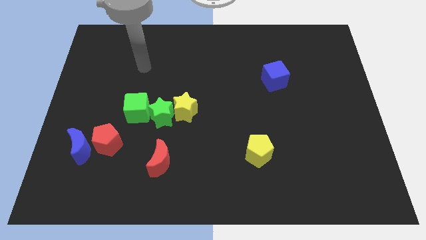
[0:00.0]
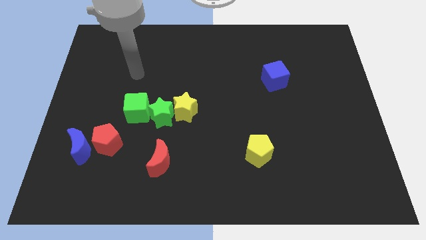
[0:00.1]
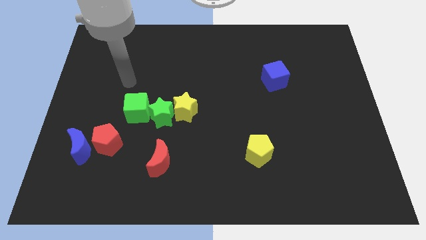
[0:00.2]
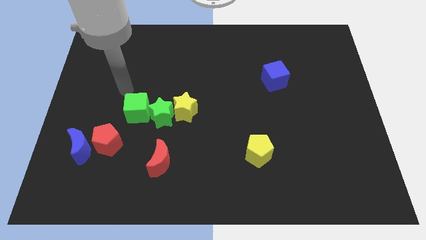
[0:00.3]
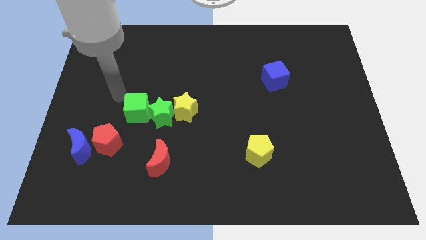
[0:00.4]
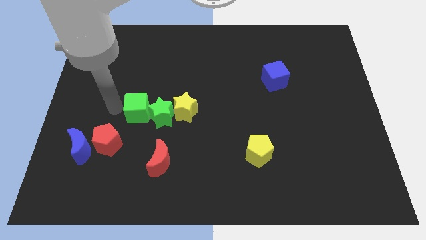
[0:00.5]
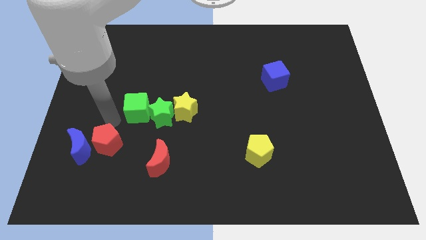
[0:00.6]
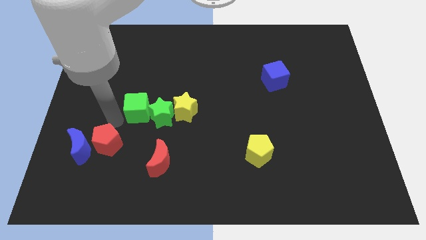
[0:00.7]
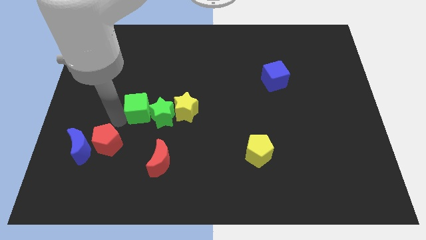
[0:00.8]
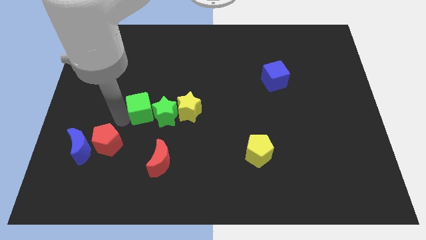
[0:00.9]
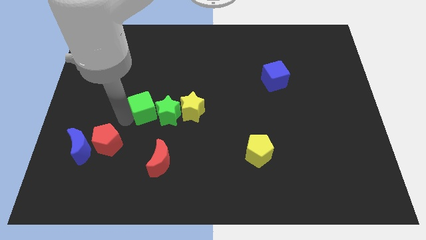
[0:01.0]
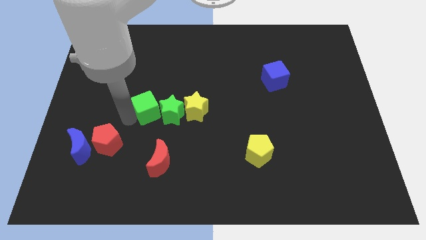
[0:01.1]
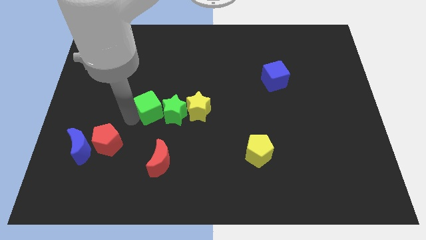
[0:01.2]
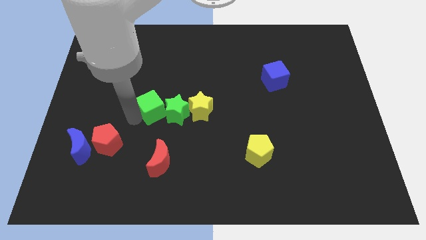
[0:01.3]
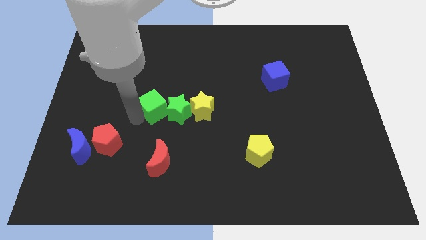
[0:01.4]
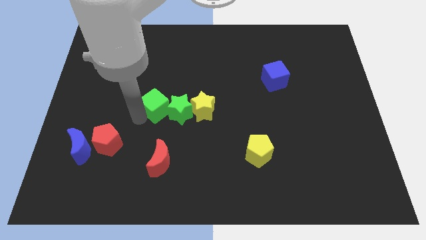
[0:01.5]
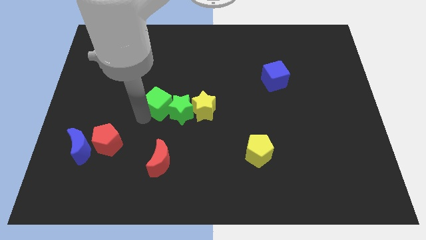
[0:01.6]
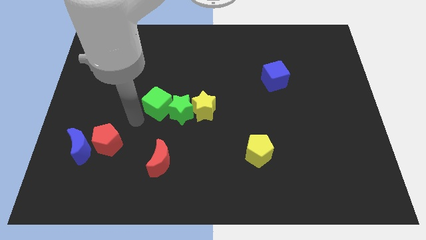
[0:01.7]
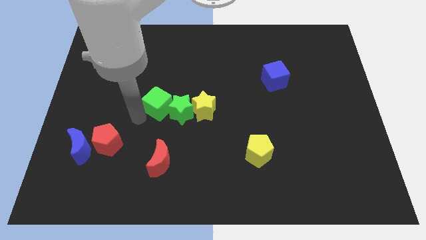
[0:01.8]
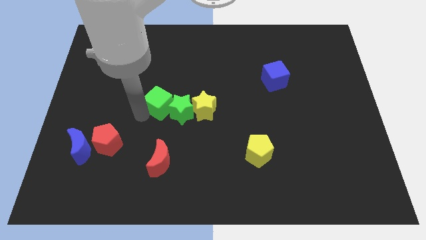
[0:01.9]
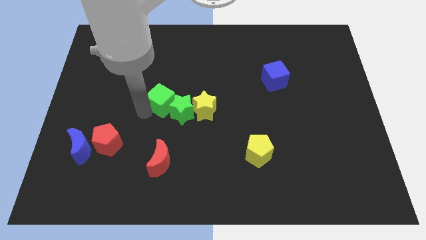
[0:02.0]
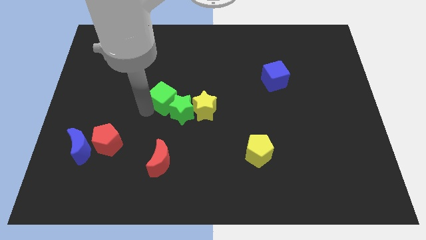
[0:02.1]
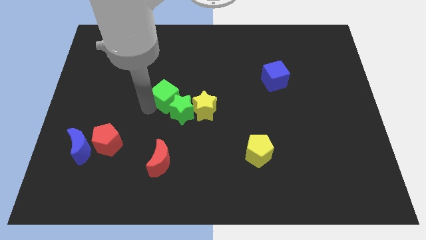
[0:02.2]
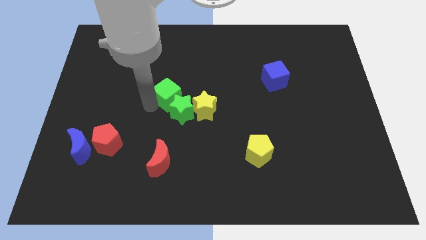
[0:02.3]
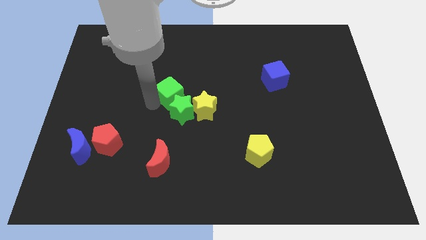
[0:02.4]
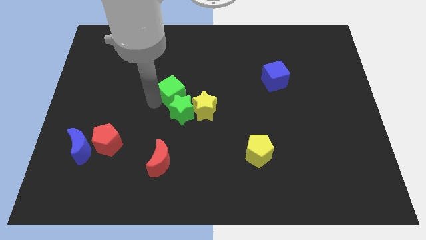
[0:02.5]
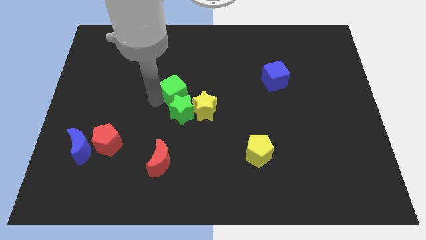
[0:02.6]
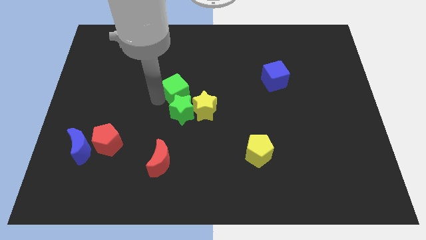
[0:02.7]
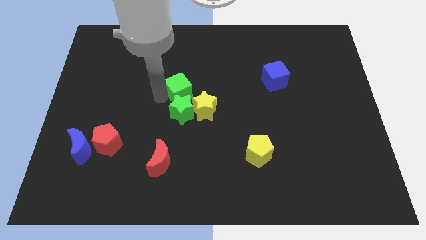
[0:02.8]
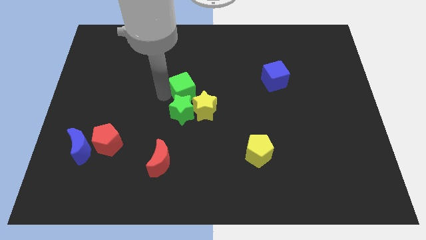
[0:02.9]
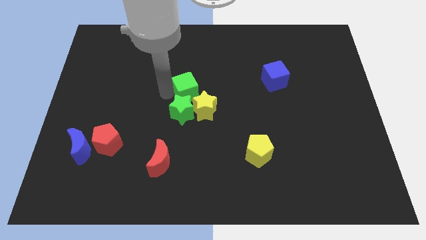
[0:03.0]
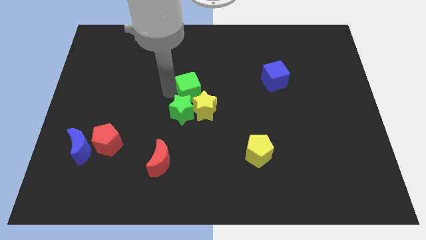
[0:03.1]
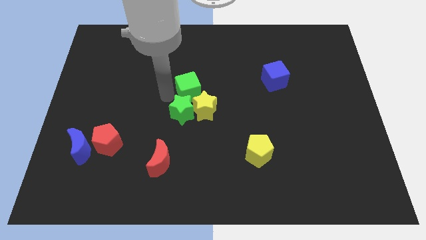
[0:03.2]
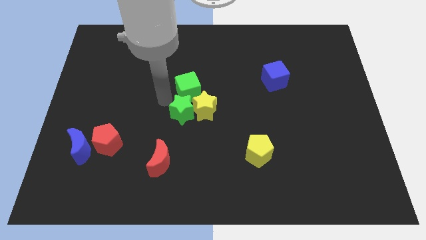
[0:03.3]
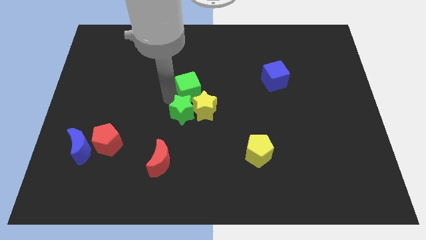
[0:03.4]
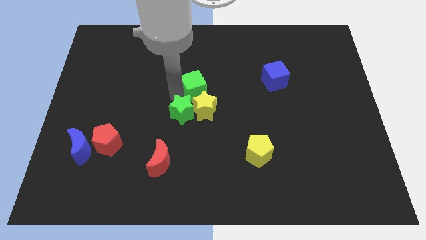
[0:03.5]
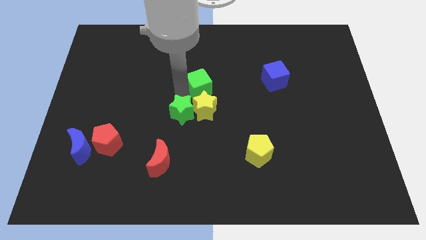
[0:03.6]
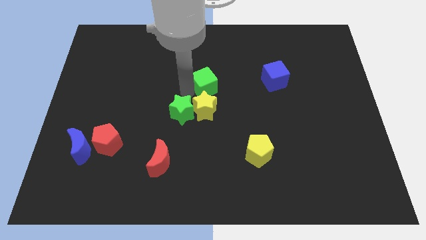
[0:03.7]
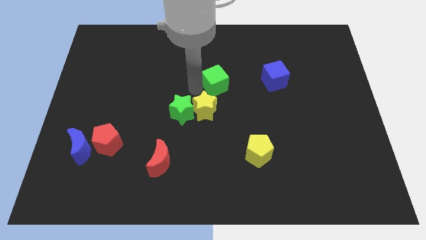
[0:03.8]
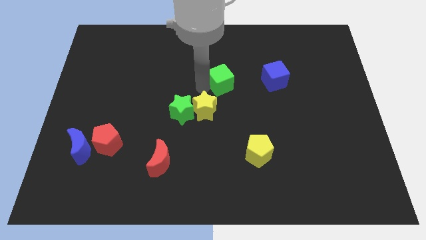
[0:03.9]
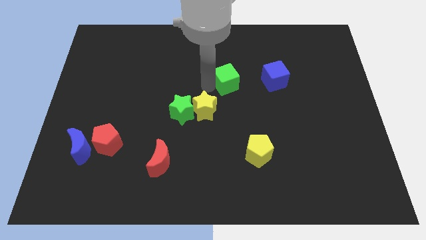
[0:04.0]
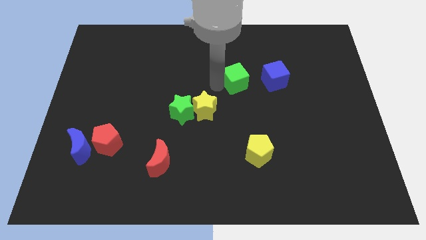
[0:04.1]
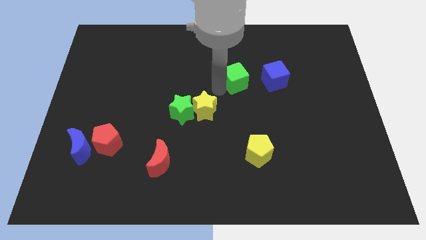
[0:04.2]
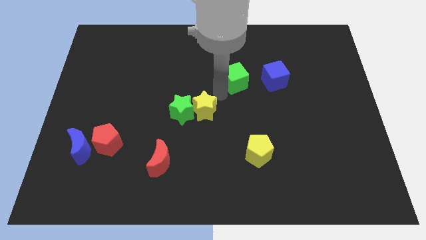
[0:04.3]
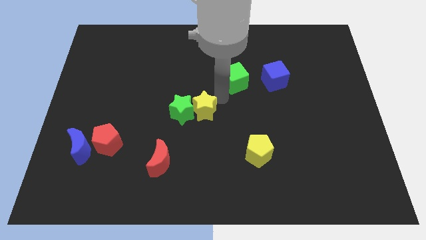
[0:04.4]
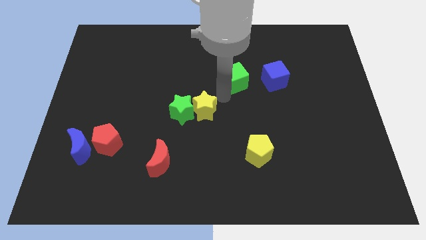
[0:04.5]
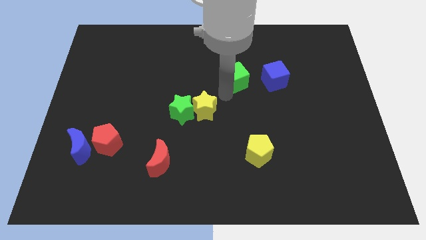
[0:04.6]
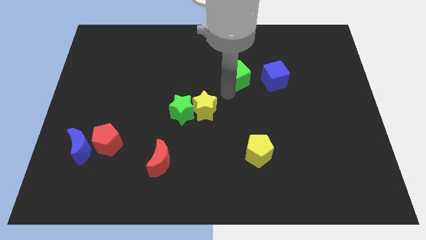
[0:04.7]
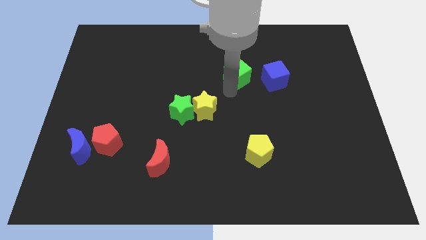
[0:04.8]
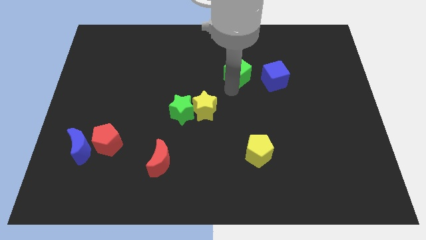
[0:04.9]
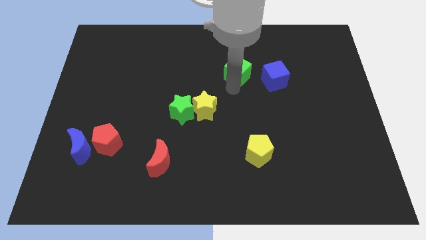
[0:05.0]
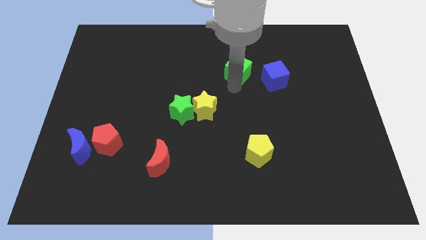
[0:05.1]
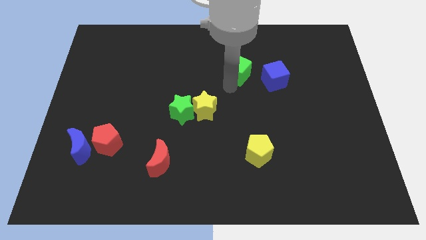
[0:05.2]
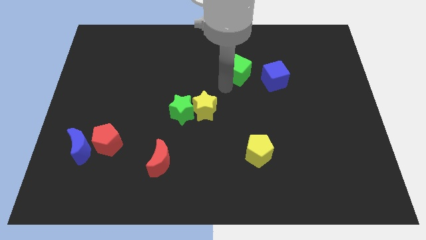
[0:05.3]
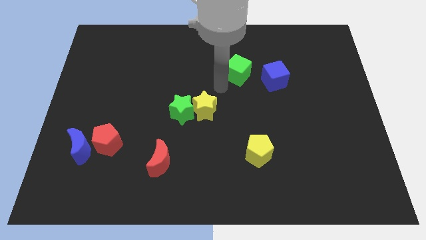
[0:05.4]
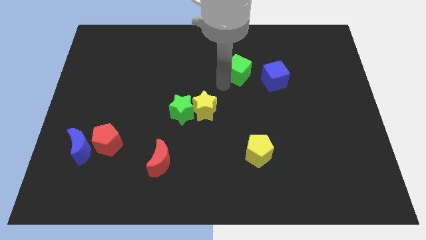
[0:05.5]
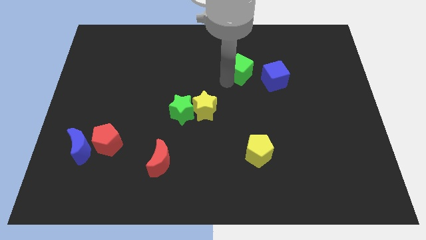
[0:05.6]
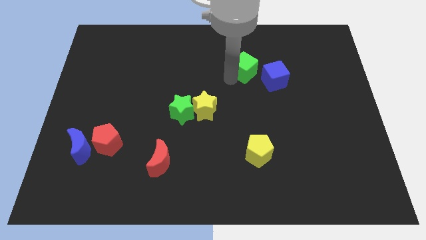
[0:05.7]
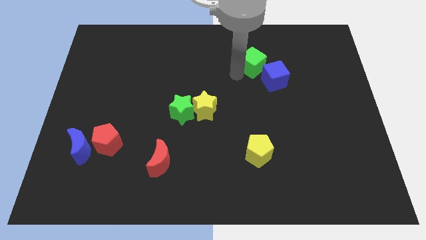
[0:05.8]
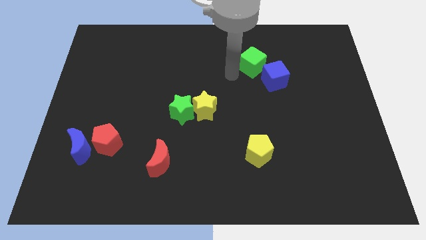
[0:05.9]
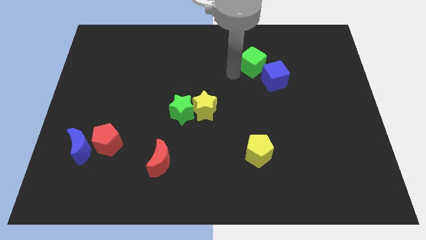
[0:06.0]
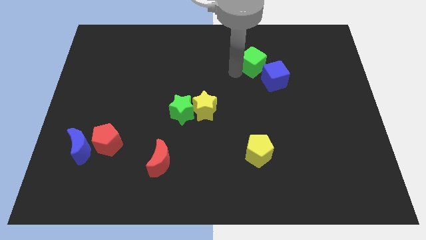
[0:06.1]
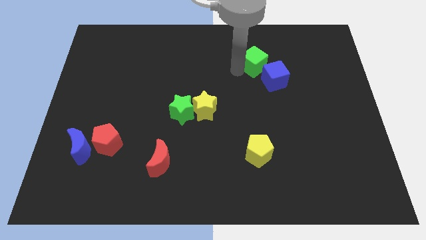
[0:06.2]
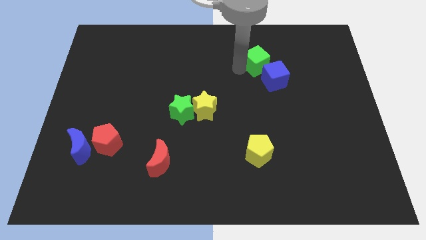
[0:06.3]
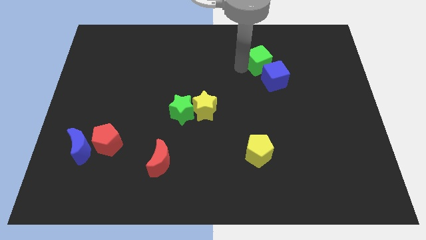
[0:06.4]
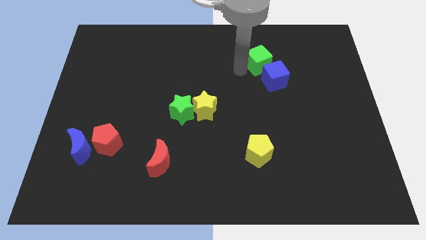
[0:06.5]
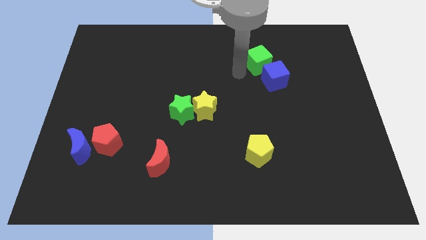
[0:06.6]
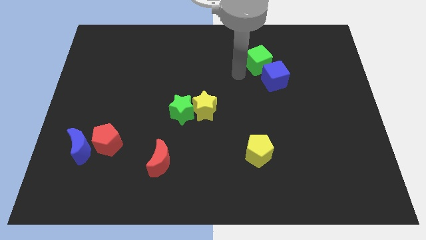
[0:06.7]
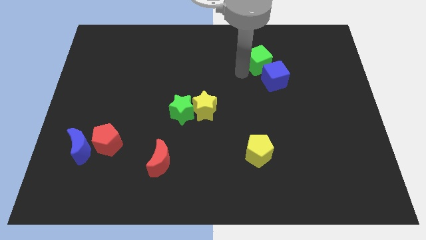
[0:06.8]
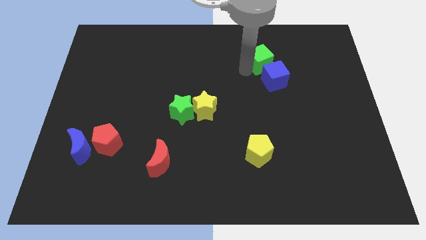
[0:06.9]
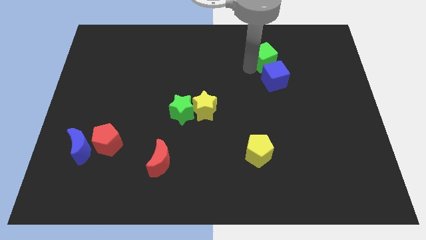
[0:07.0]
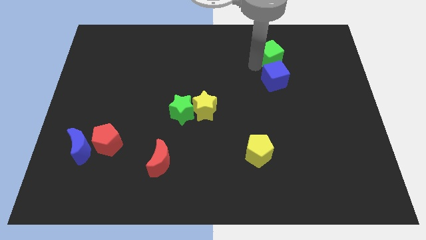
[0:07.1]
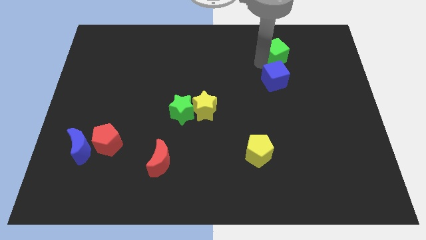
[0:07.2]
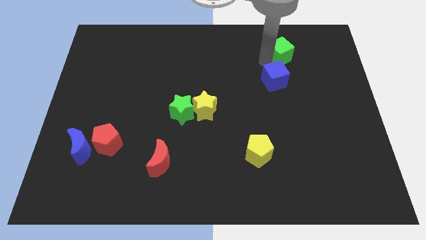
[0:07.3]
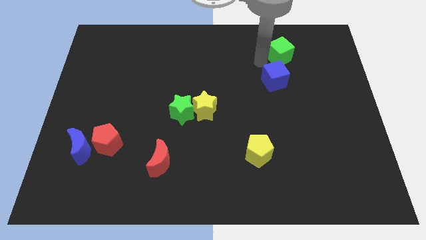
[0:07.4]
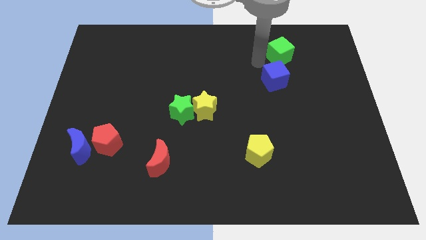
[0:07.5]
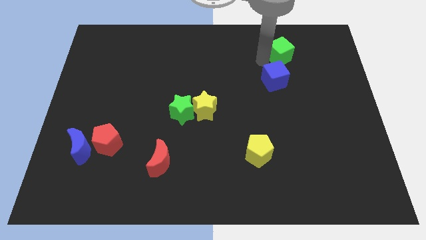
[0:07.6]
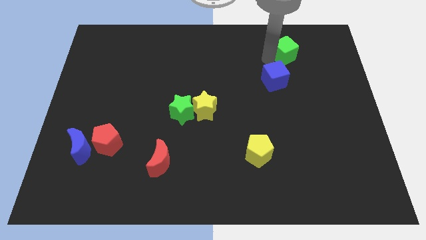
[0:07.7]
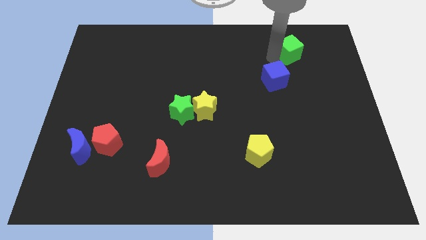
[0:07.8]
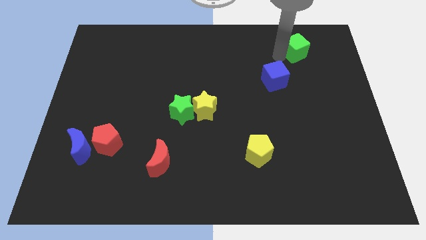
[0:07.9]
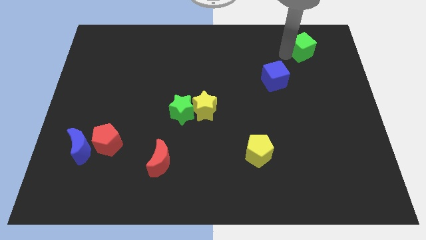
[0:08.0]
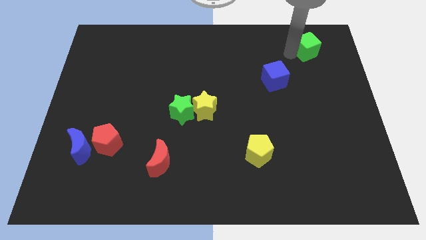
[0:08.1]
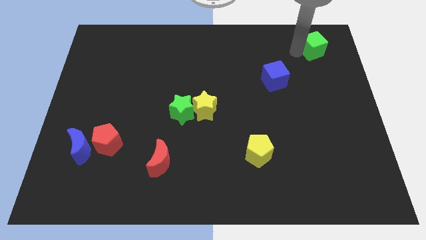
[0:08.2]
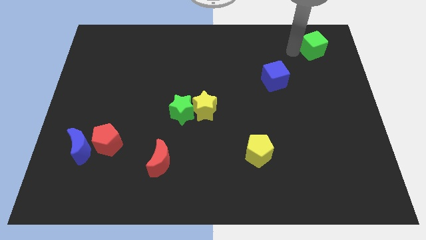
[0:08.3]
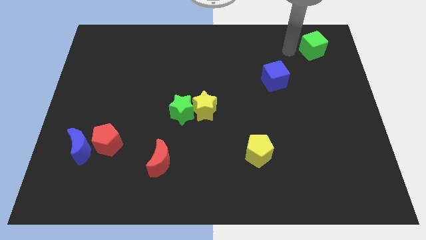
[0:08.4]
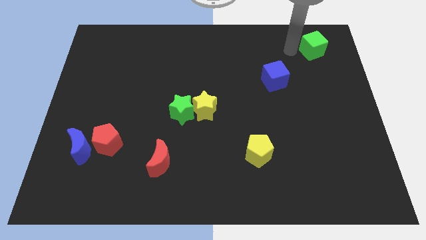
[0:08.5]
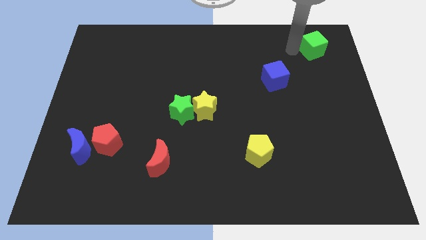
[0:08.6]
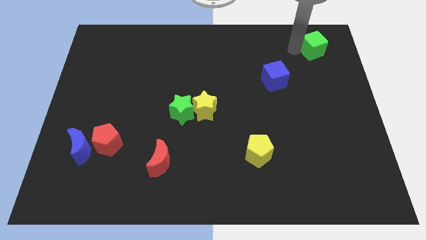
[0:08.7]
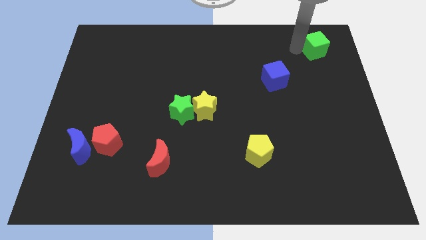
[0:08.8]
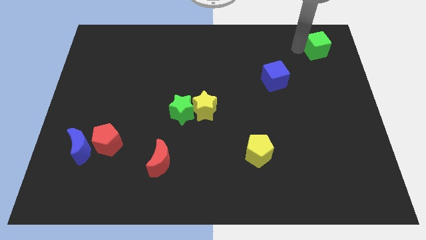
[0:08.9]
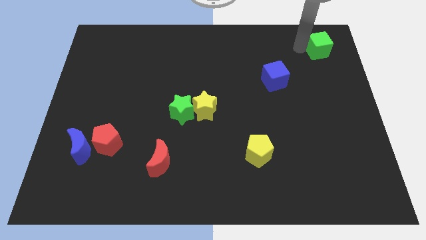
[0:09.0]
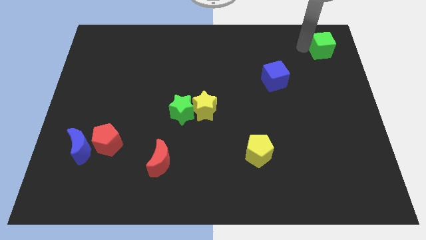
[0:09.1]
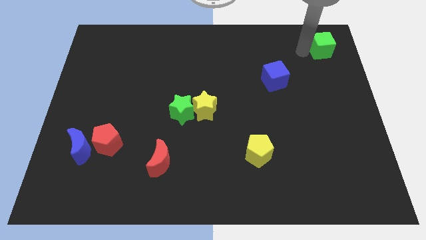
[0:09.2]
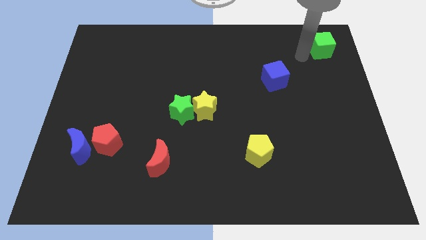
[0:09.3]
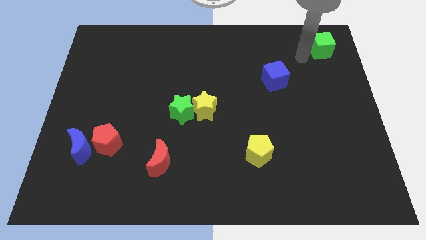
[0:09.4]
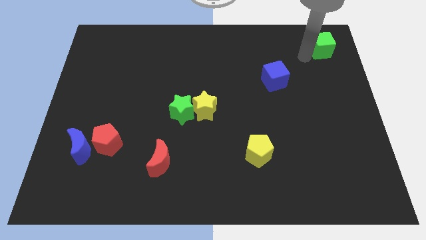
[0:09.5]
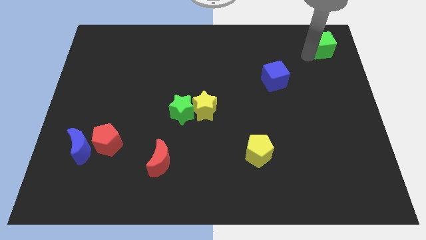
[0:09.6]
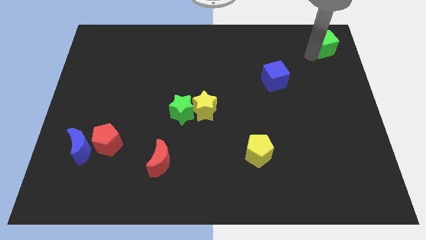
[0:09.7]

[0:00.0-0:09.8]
push the green cube to the top right corner
